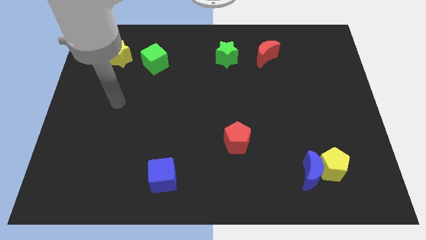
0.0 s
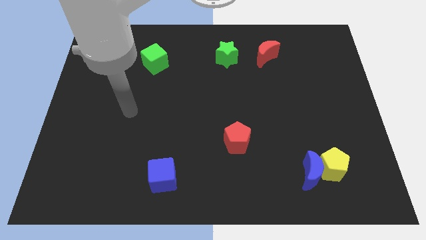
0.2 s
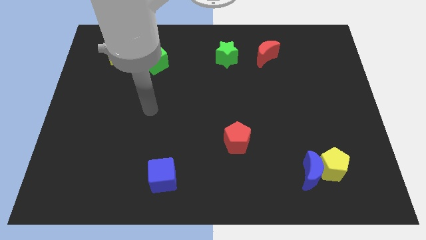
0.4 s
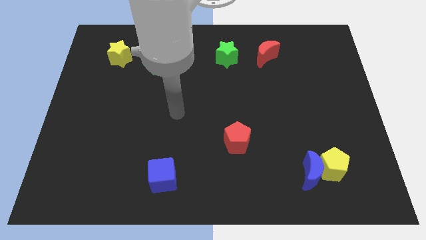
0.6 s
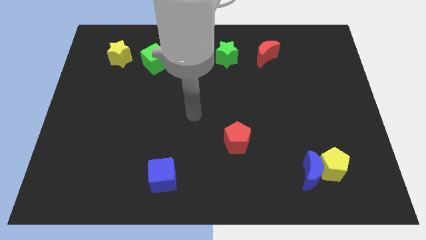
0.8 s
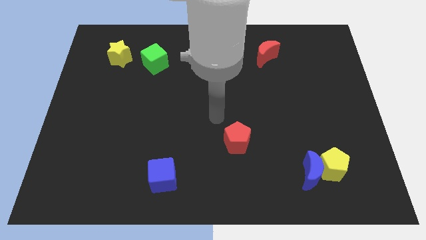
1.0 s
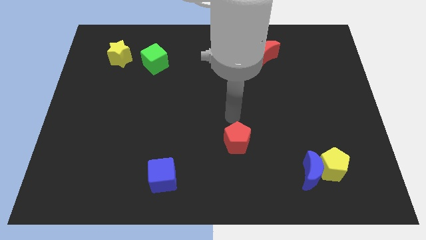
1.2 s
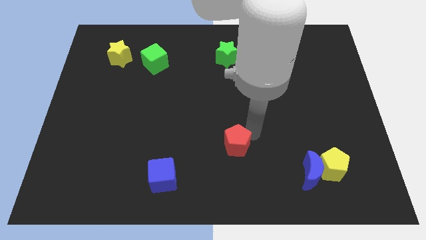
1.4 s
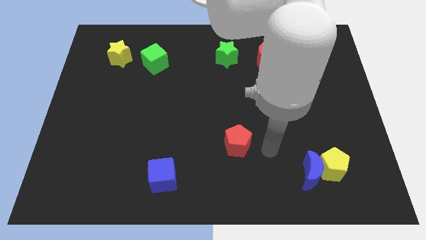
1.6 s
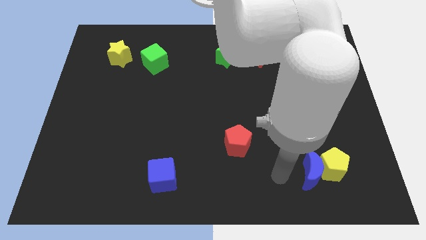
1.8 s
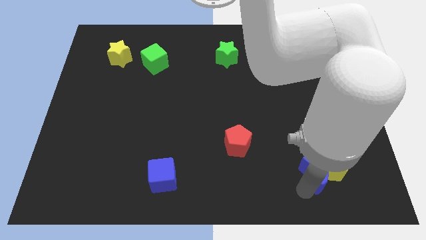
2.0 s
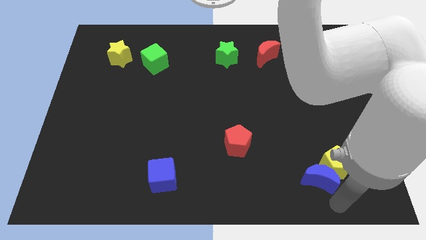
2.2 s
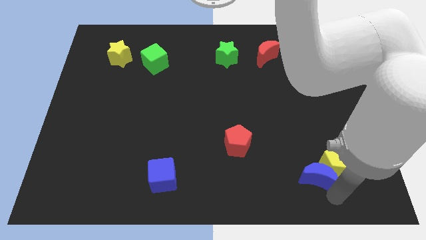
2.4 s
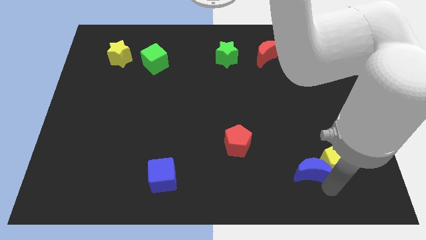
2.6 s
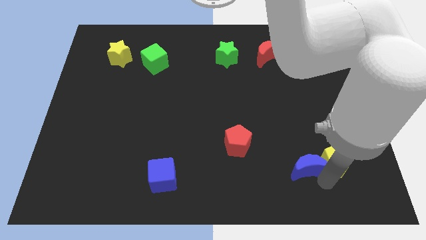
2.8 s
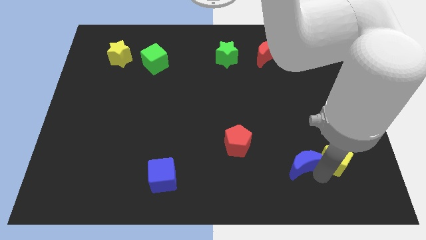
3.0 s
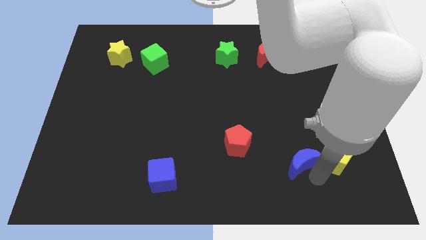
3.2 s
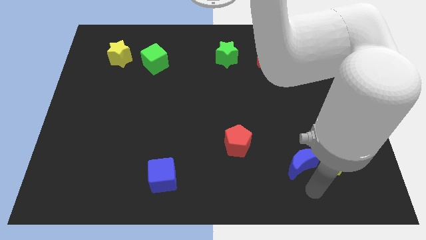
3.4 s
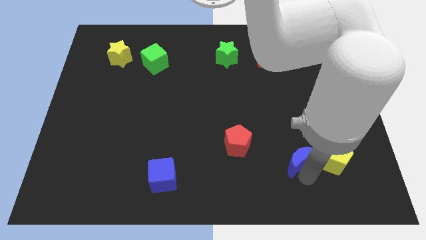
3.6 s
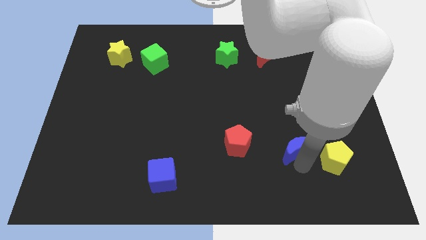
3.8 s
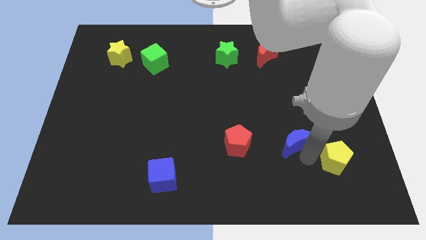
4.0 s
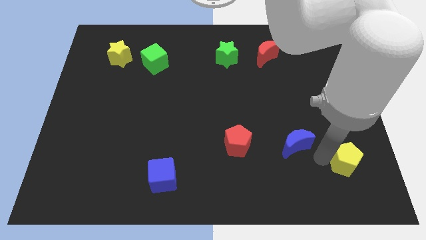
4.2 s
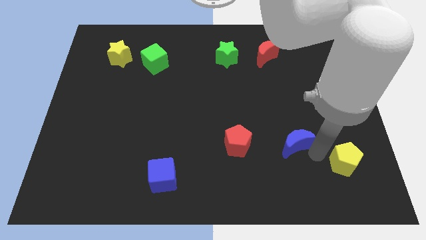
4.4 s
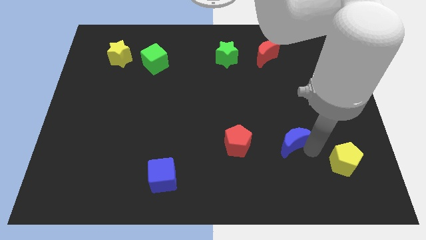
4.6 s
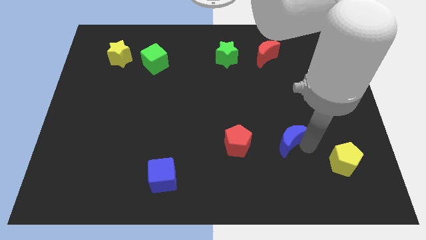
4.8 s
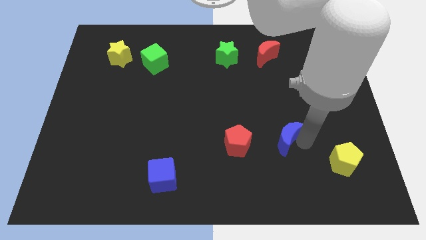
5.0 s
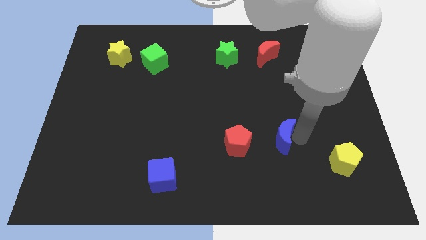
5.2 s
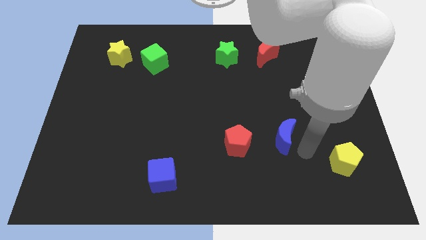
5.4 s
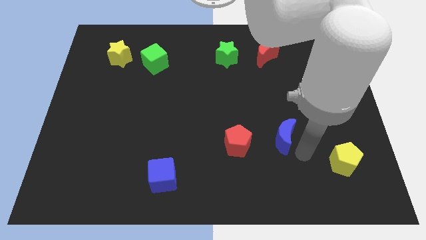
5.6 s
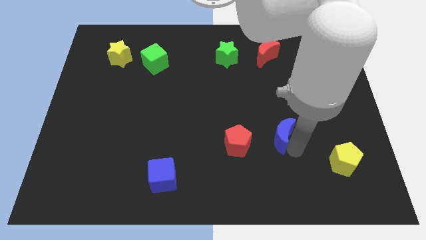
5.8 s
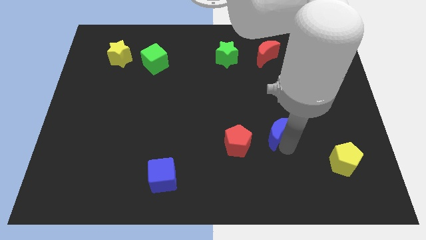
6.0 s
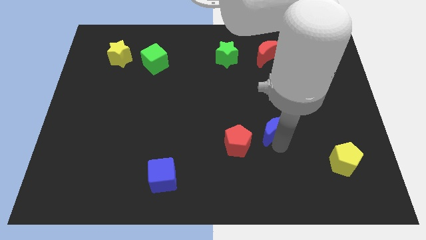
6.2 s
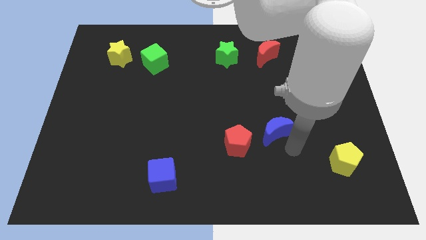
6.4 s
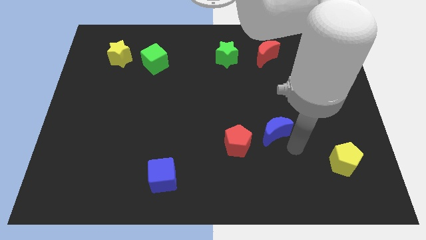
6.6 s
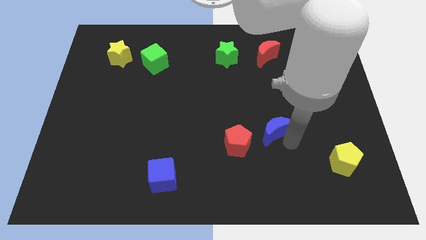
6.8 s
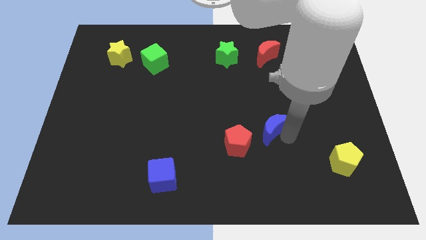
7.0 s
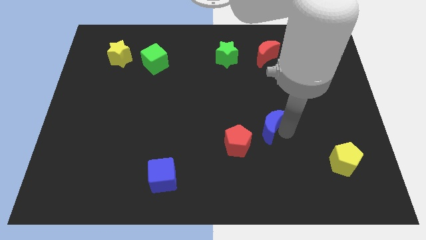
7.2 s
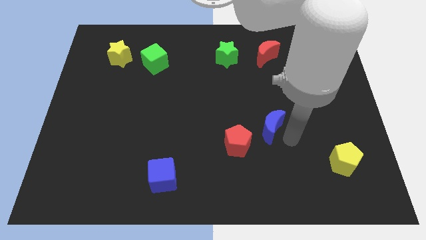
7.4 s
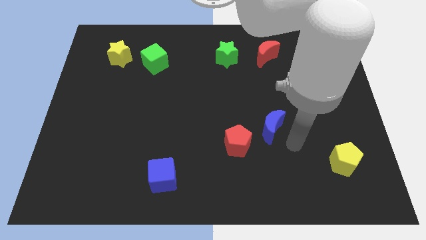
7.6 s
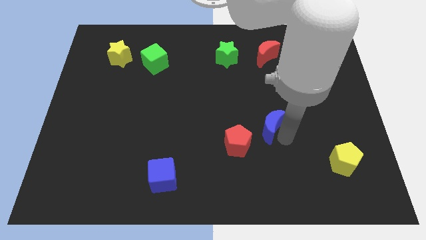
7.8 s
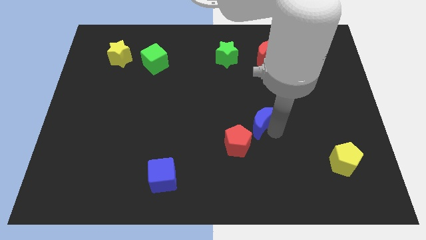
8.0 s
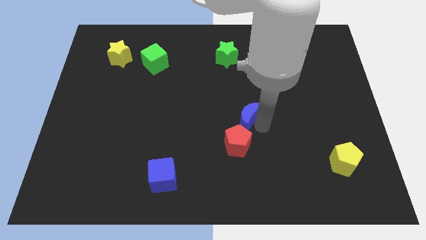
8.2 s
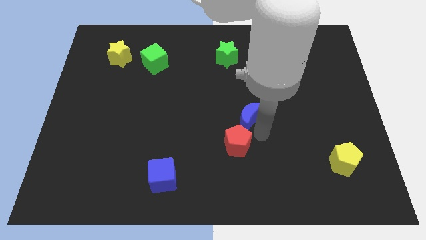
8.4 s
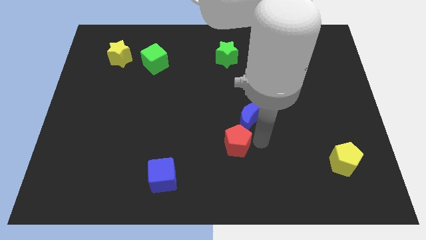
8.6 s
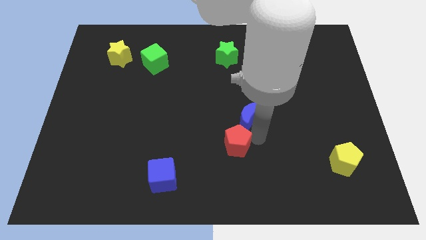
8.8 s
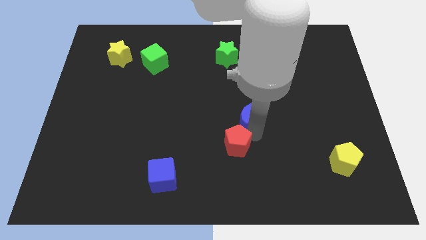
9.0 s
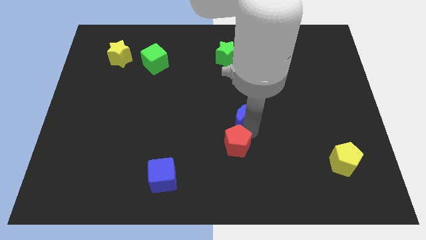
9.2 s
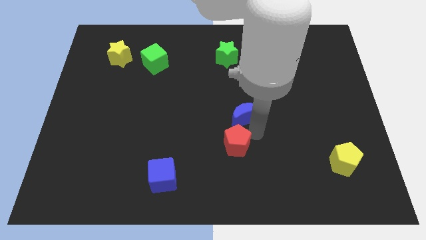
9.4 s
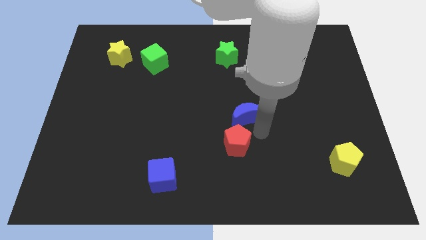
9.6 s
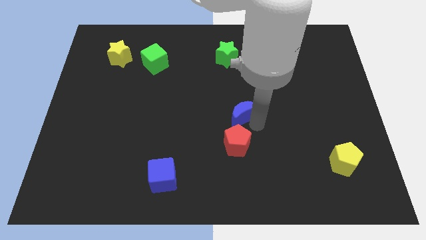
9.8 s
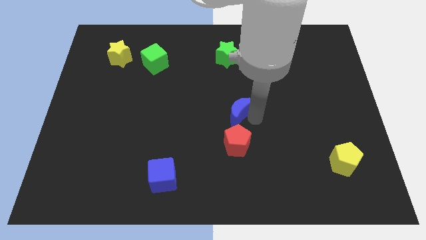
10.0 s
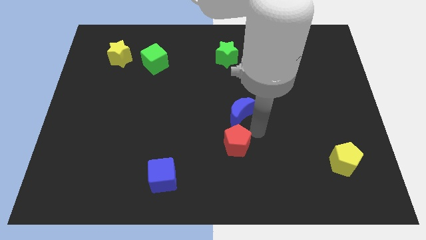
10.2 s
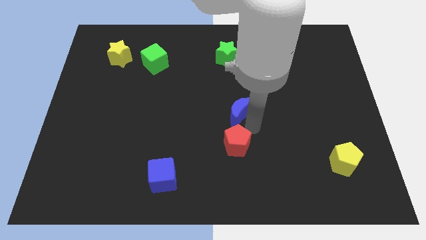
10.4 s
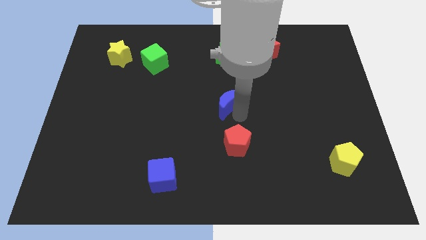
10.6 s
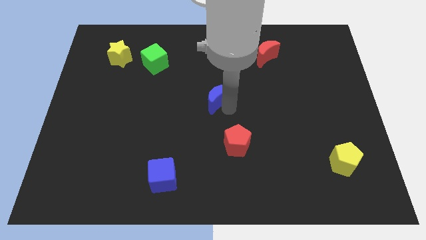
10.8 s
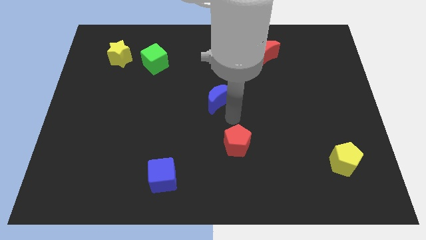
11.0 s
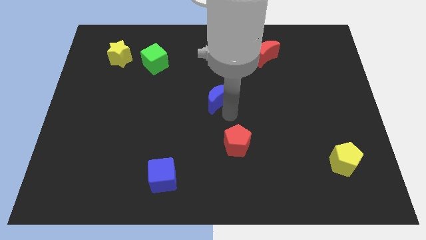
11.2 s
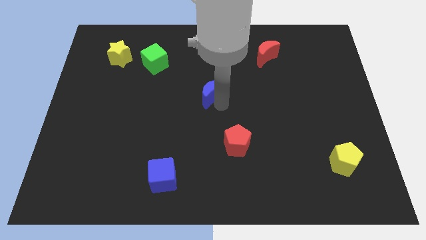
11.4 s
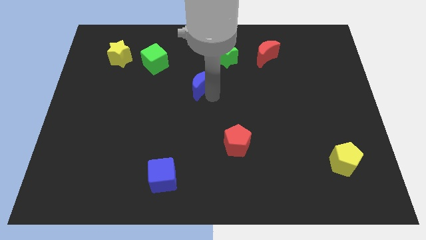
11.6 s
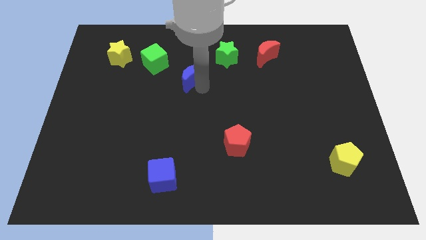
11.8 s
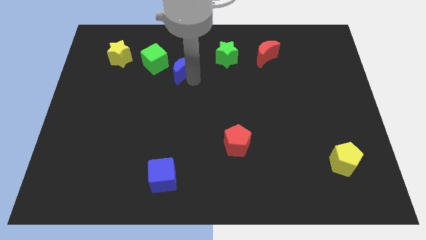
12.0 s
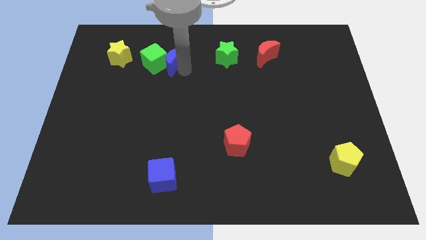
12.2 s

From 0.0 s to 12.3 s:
slide the blue moon right of the yellow star

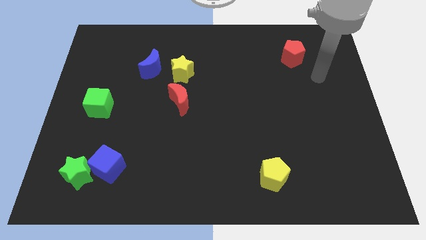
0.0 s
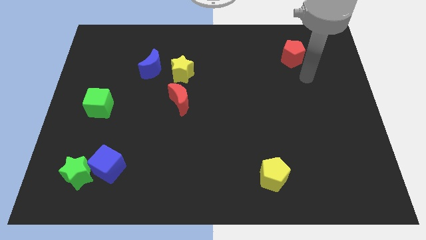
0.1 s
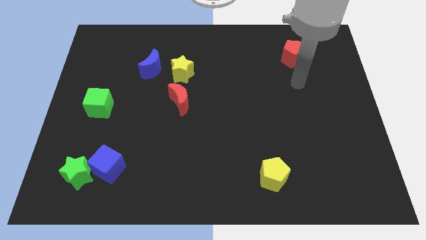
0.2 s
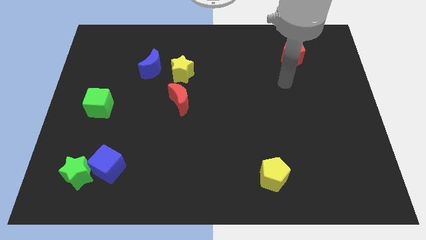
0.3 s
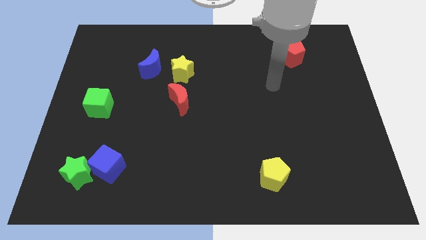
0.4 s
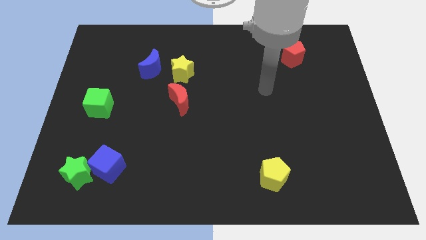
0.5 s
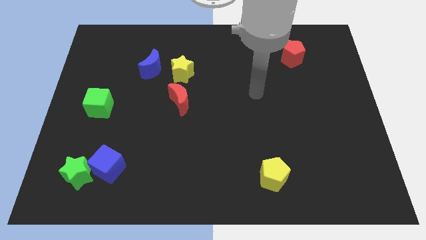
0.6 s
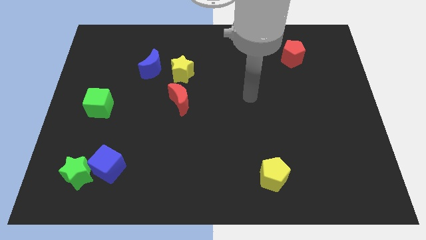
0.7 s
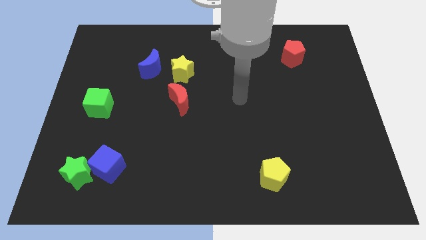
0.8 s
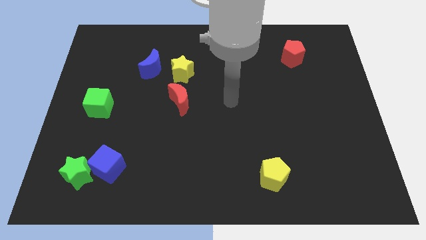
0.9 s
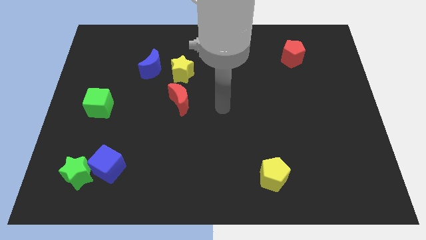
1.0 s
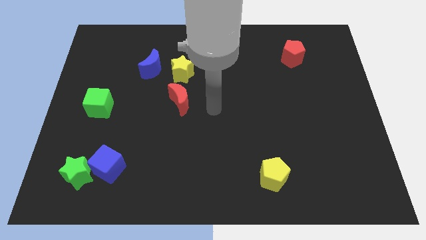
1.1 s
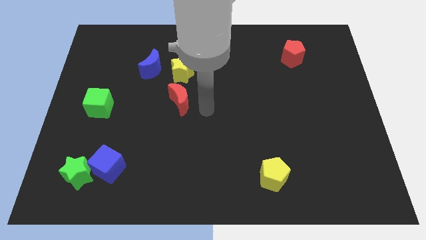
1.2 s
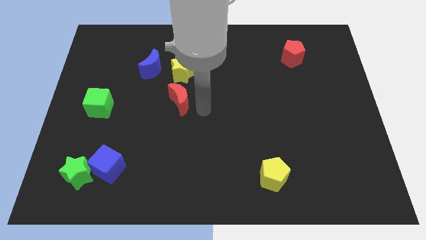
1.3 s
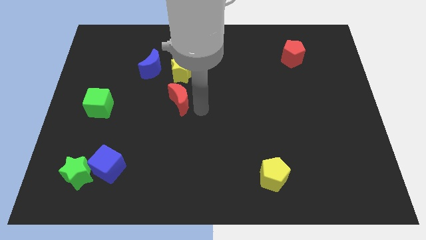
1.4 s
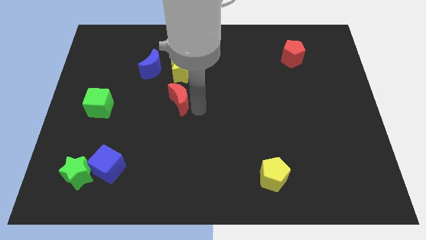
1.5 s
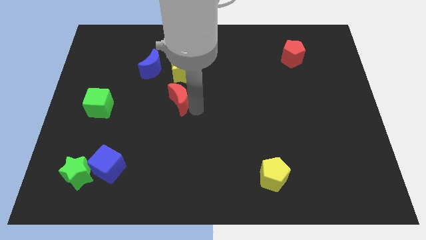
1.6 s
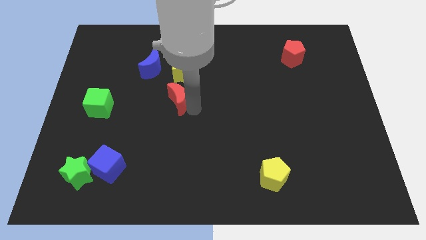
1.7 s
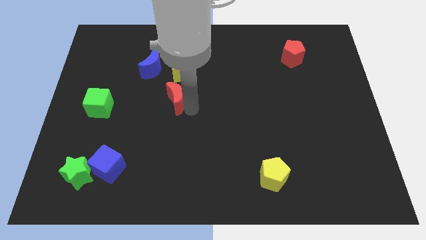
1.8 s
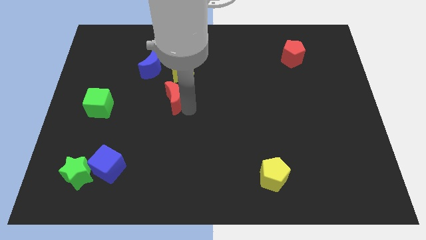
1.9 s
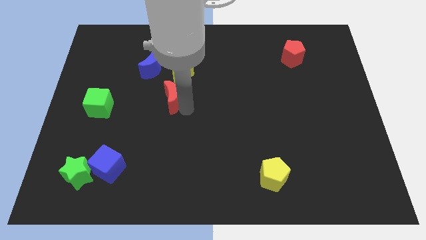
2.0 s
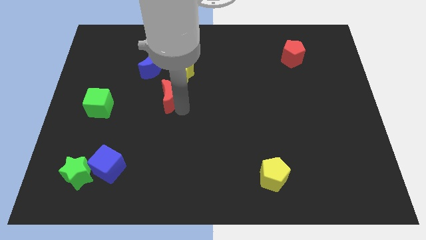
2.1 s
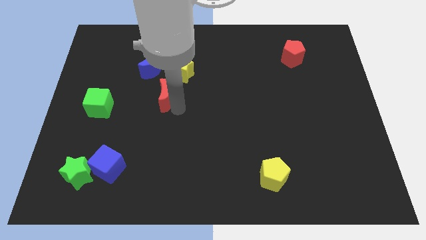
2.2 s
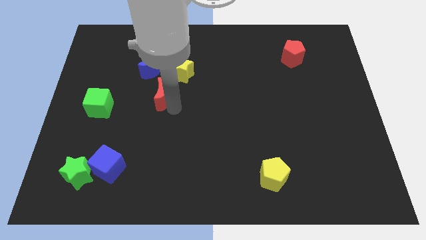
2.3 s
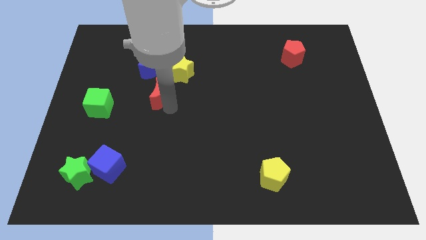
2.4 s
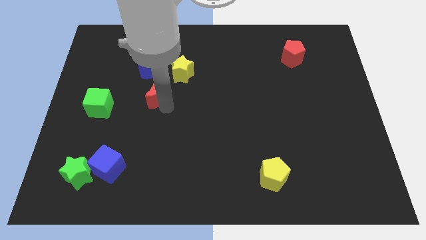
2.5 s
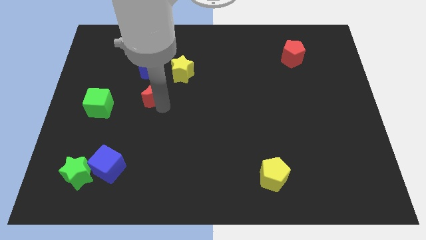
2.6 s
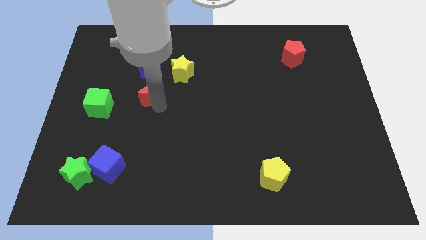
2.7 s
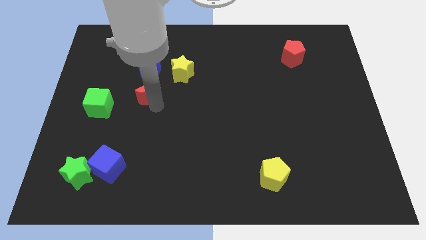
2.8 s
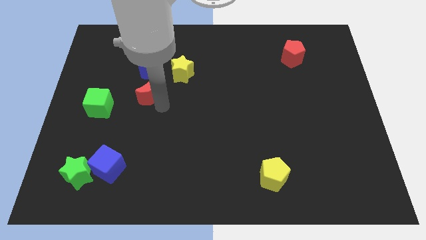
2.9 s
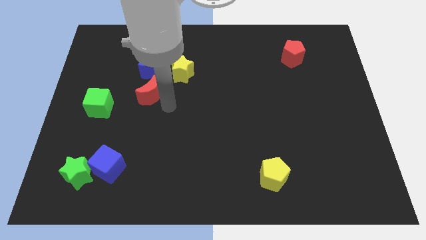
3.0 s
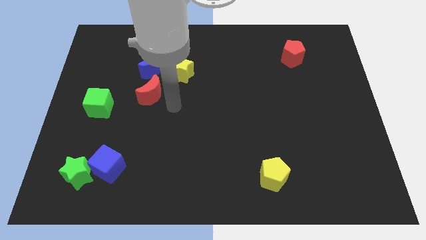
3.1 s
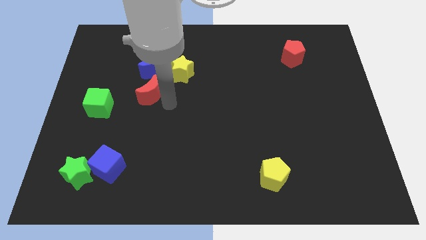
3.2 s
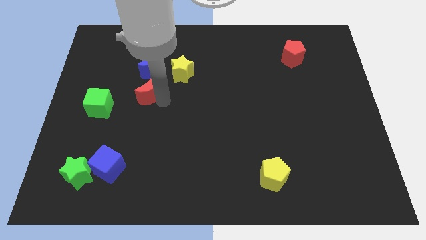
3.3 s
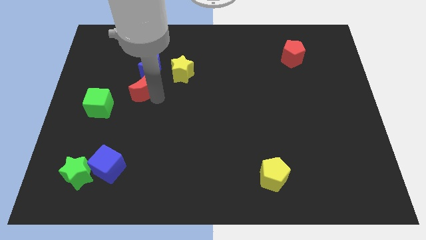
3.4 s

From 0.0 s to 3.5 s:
push the red moon to the bottom left of the blue moon
